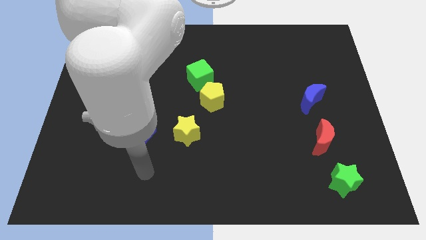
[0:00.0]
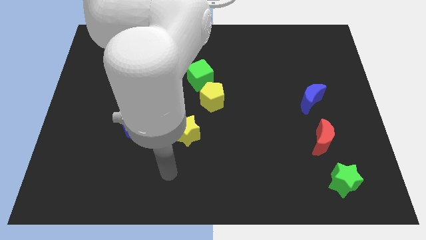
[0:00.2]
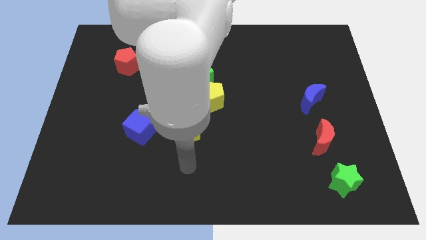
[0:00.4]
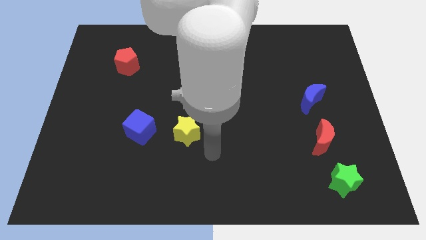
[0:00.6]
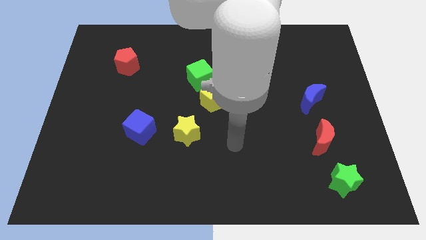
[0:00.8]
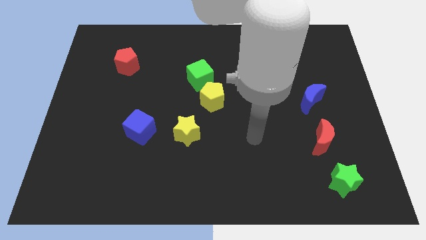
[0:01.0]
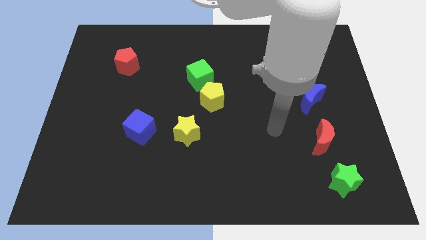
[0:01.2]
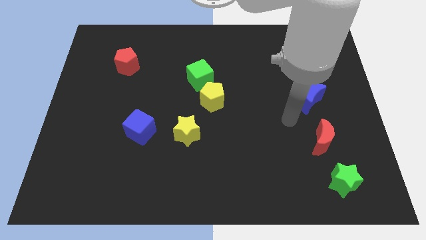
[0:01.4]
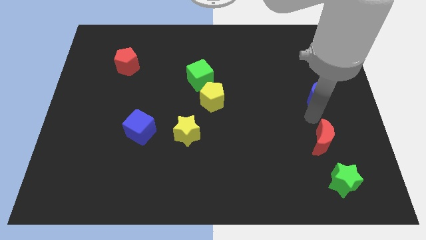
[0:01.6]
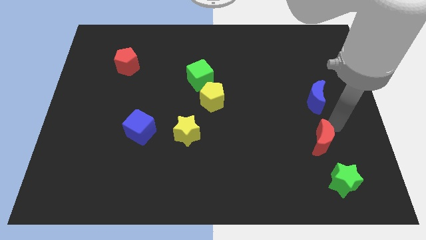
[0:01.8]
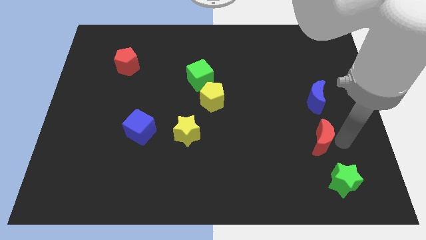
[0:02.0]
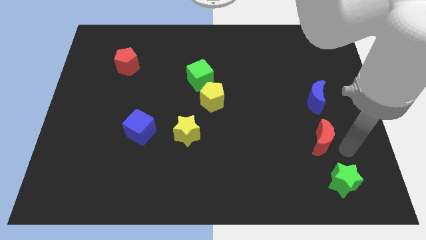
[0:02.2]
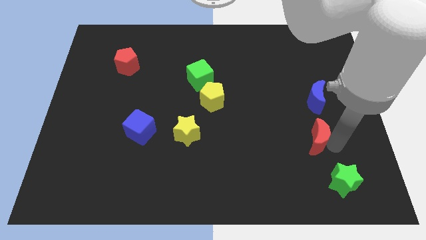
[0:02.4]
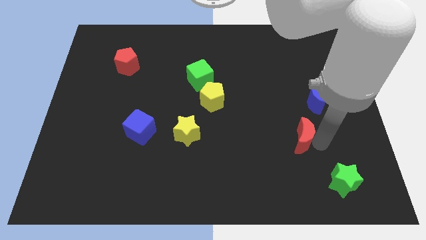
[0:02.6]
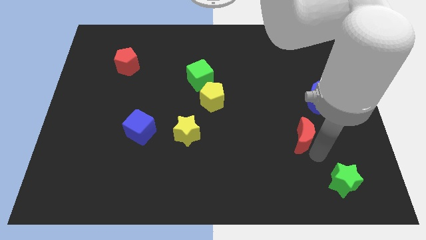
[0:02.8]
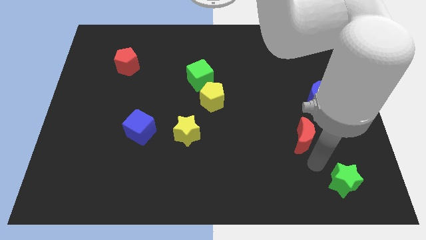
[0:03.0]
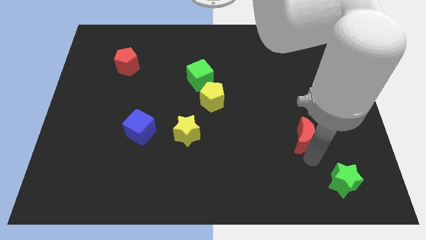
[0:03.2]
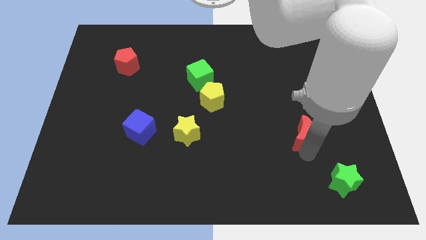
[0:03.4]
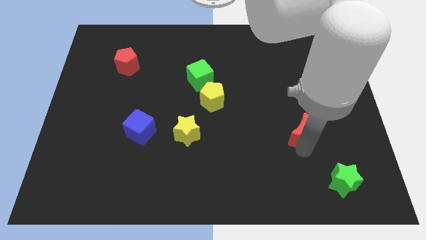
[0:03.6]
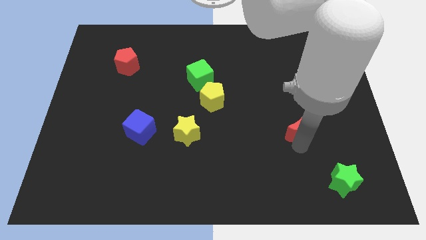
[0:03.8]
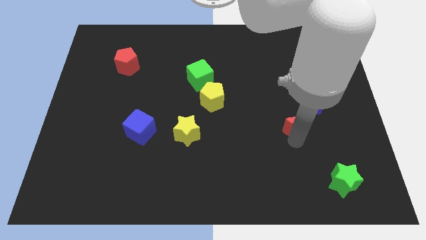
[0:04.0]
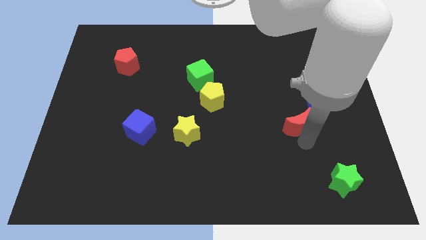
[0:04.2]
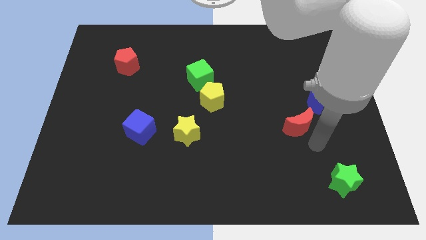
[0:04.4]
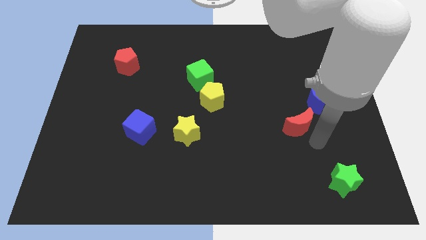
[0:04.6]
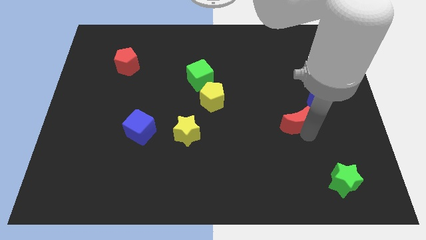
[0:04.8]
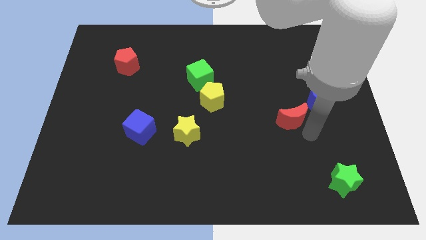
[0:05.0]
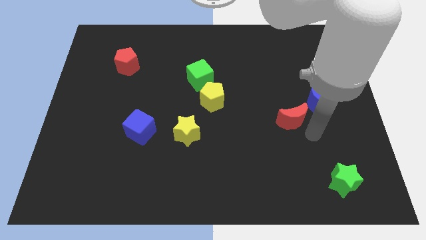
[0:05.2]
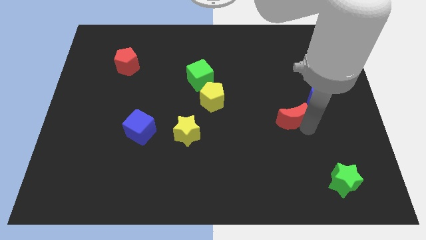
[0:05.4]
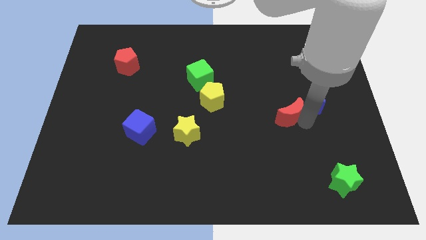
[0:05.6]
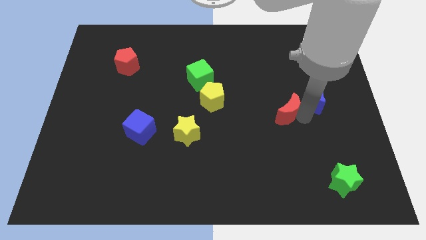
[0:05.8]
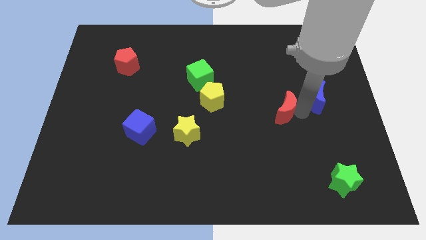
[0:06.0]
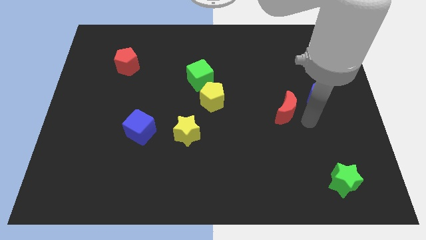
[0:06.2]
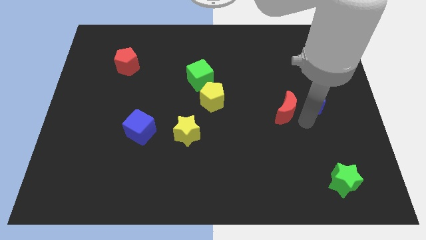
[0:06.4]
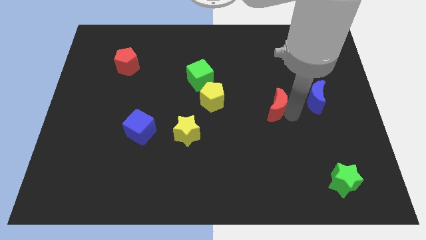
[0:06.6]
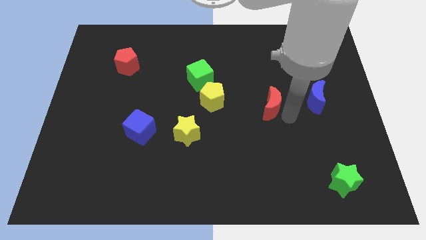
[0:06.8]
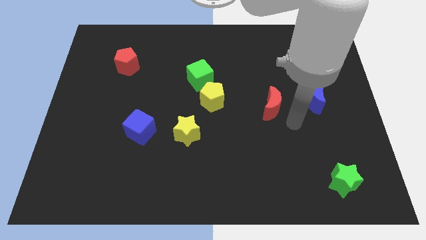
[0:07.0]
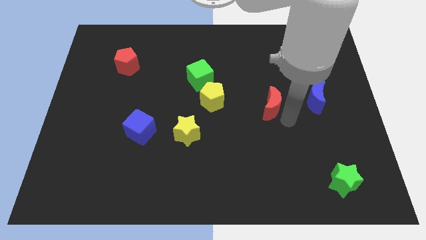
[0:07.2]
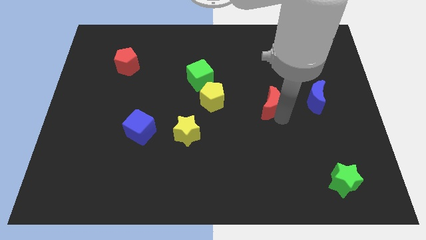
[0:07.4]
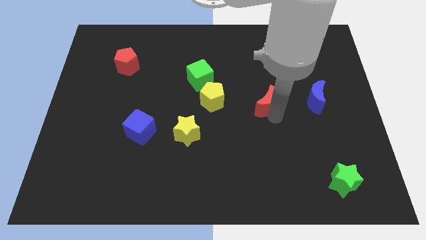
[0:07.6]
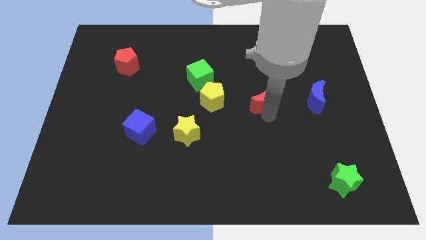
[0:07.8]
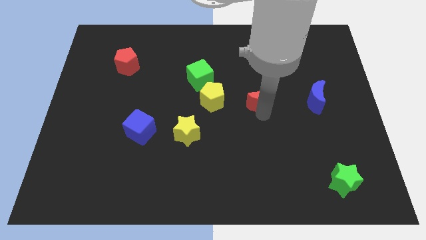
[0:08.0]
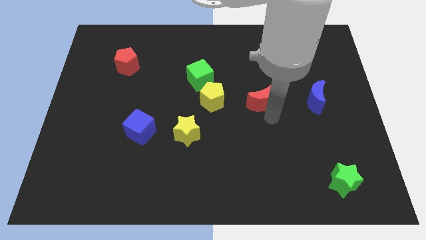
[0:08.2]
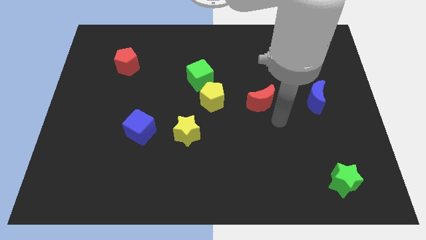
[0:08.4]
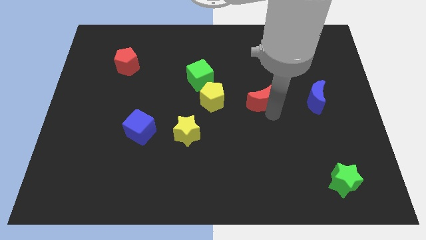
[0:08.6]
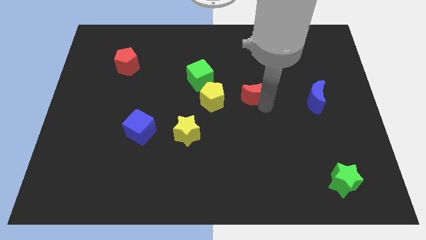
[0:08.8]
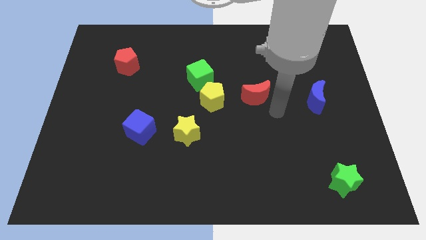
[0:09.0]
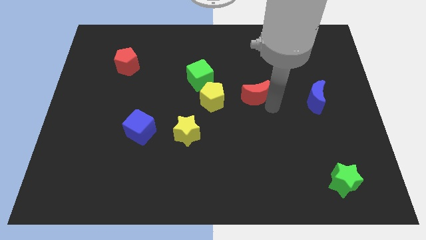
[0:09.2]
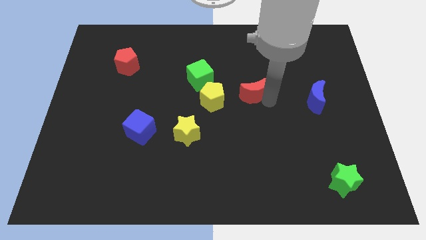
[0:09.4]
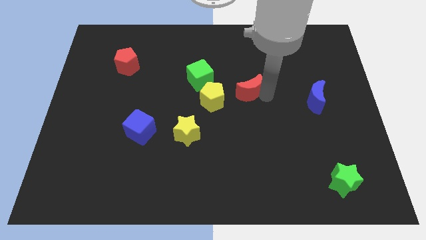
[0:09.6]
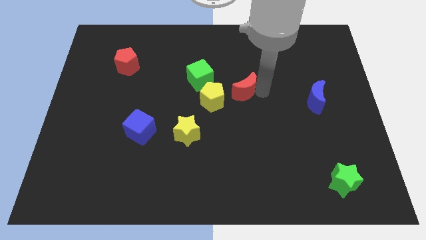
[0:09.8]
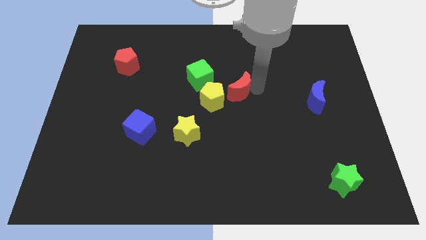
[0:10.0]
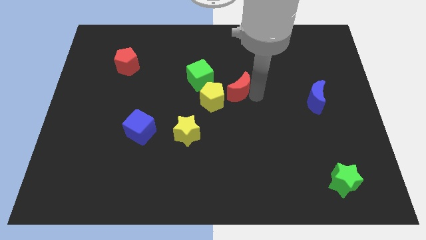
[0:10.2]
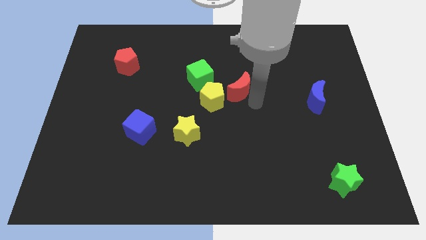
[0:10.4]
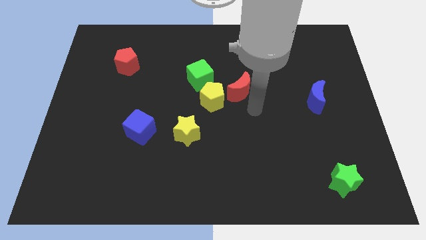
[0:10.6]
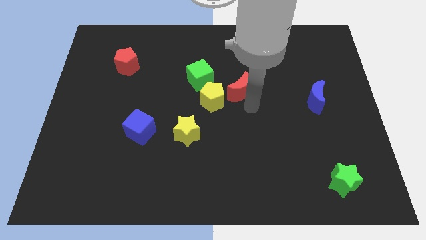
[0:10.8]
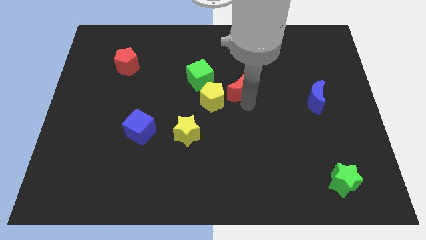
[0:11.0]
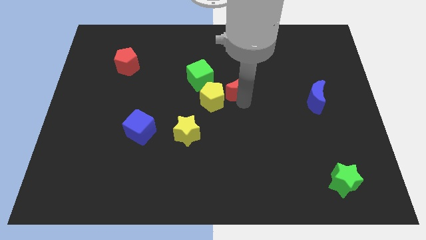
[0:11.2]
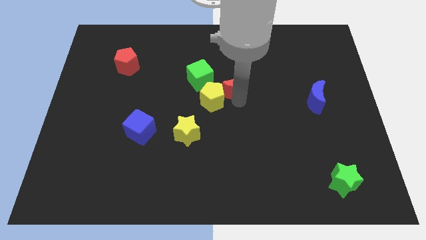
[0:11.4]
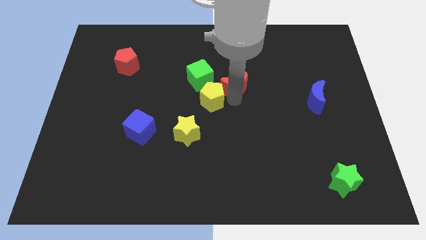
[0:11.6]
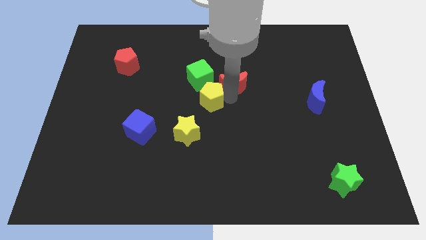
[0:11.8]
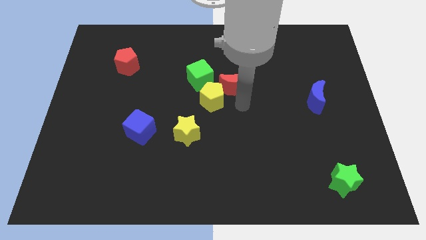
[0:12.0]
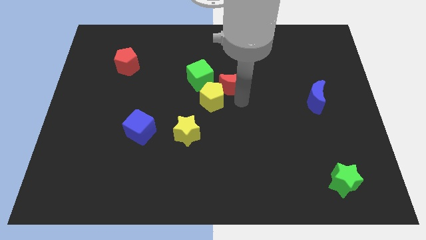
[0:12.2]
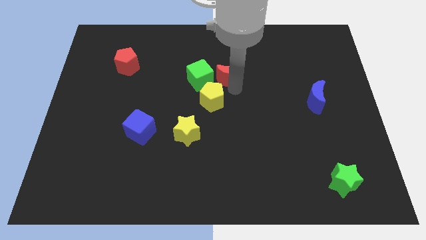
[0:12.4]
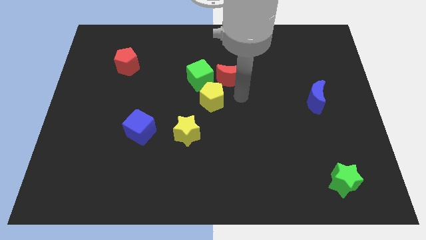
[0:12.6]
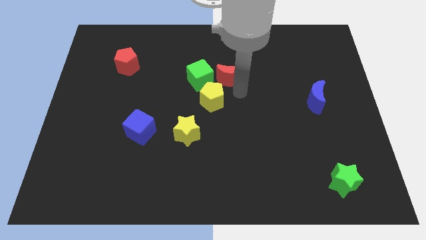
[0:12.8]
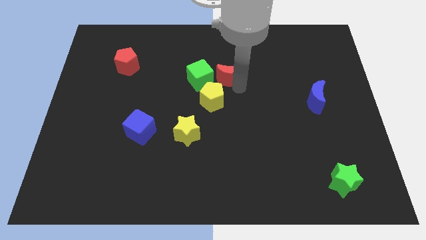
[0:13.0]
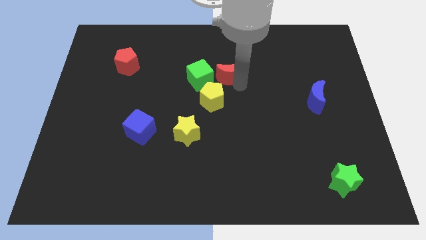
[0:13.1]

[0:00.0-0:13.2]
slide the red moon diagonally up and to the right of the green cube

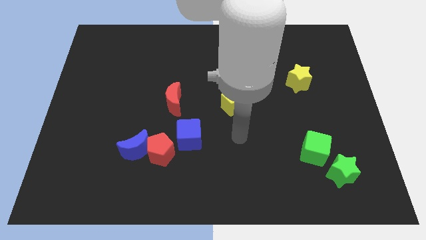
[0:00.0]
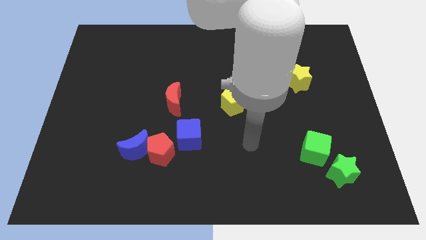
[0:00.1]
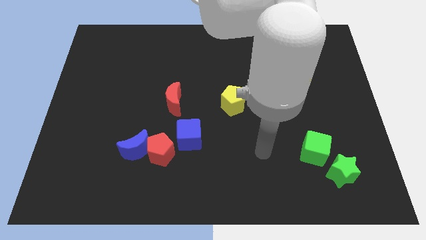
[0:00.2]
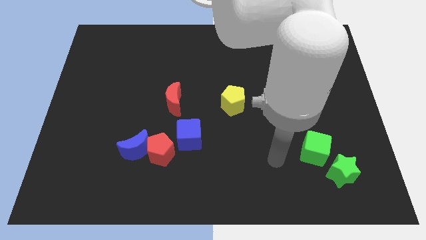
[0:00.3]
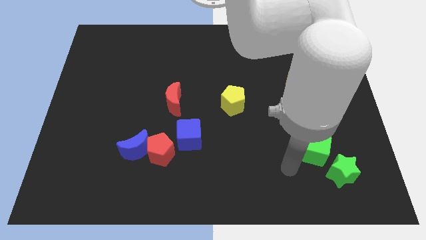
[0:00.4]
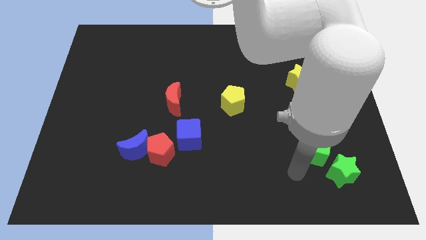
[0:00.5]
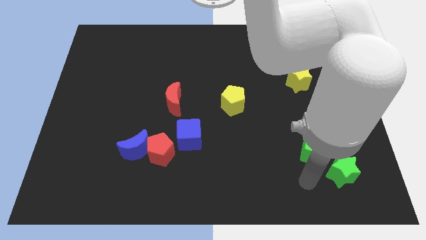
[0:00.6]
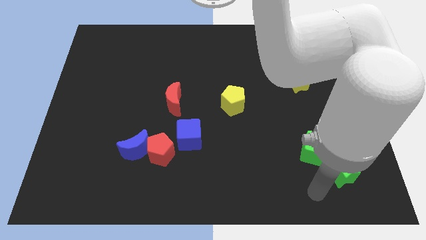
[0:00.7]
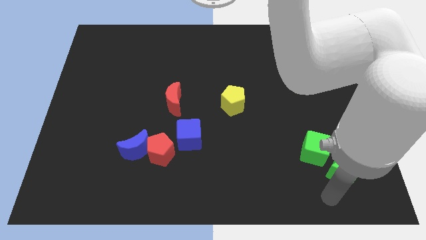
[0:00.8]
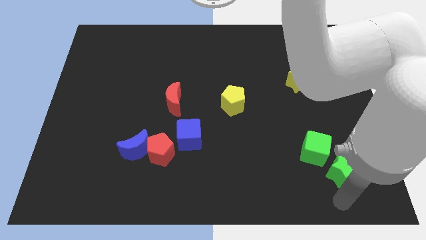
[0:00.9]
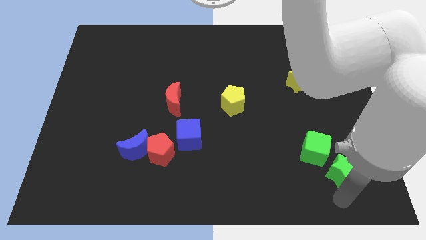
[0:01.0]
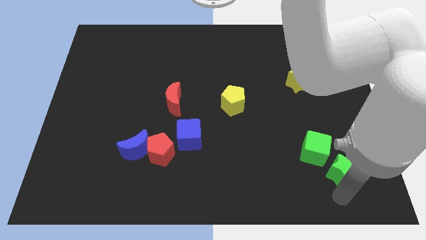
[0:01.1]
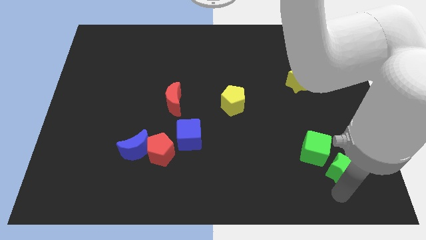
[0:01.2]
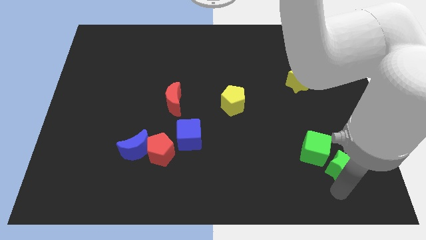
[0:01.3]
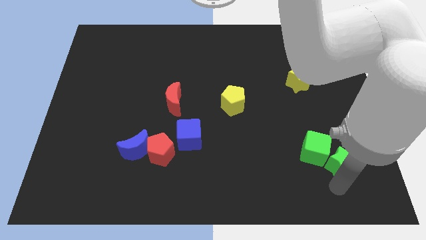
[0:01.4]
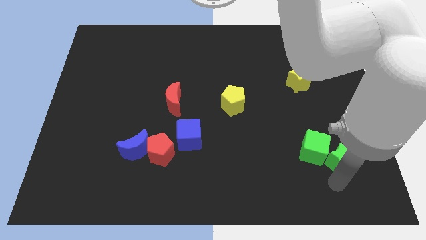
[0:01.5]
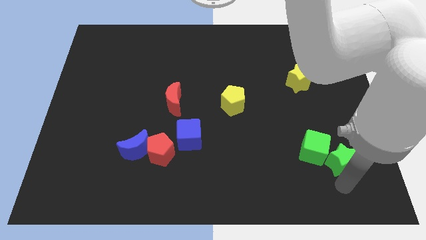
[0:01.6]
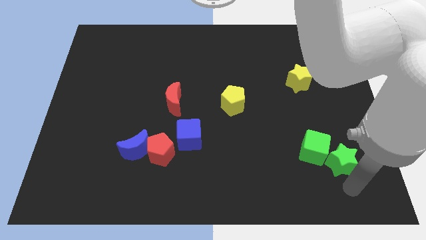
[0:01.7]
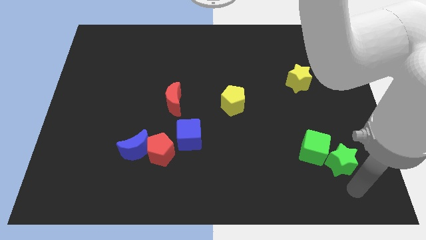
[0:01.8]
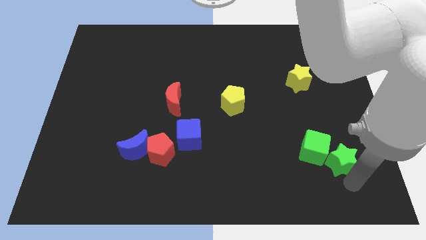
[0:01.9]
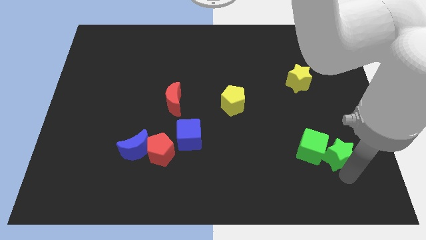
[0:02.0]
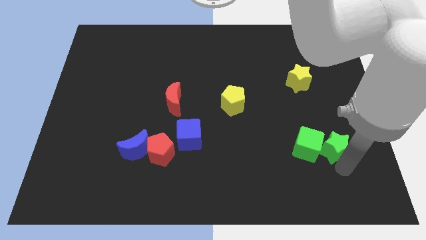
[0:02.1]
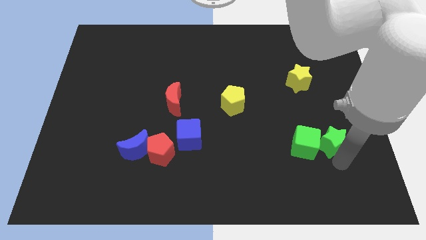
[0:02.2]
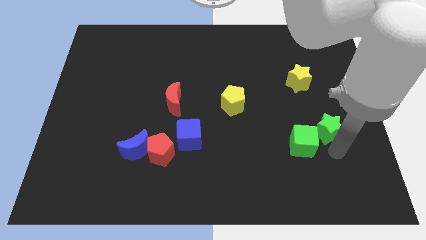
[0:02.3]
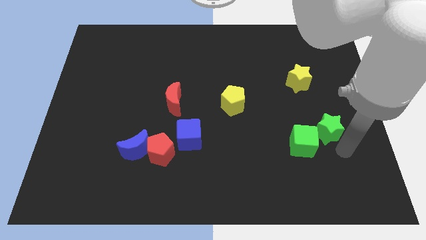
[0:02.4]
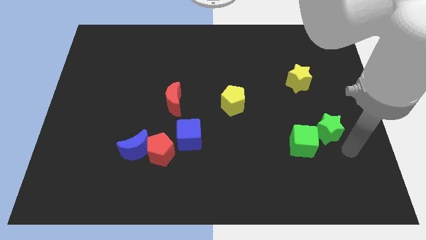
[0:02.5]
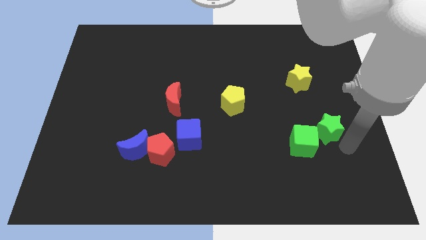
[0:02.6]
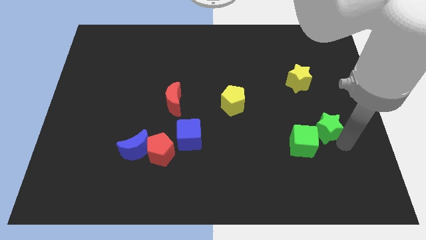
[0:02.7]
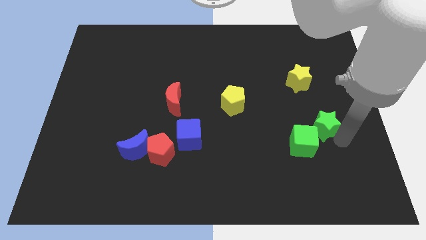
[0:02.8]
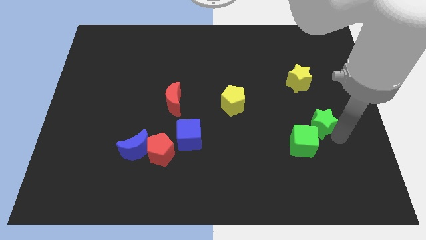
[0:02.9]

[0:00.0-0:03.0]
move the green star to the top of the green cube
